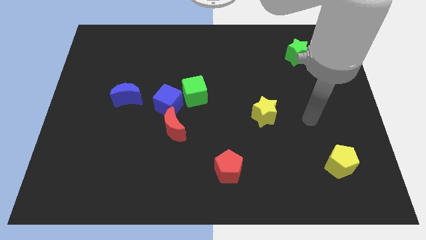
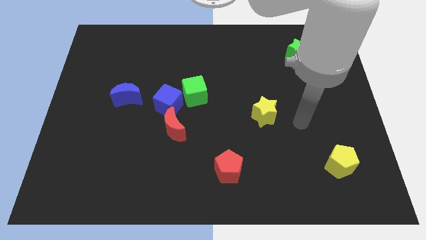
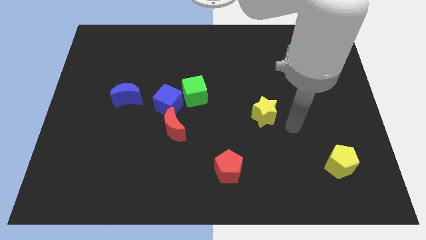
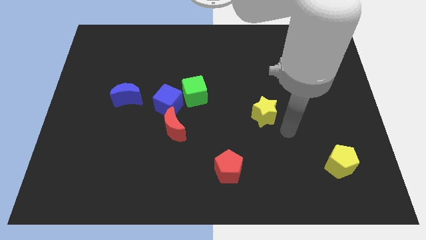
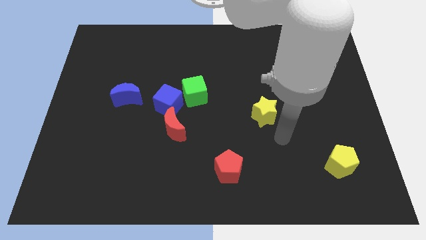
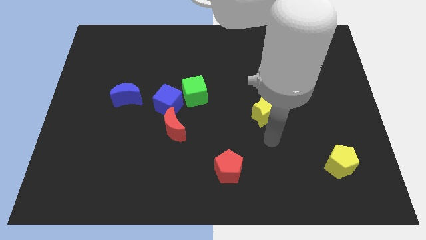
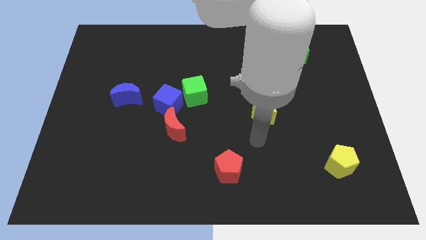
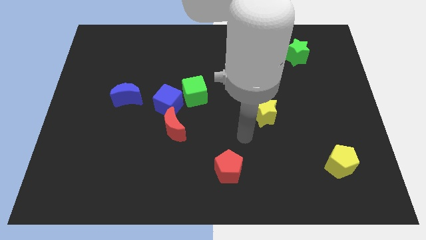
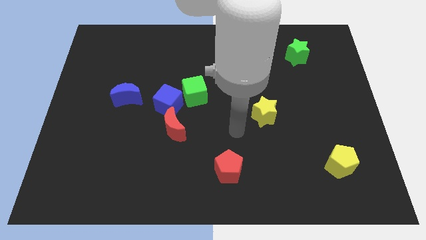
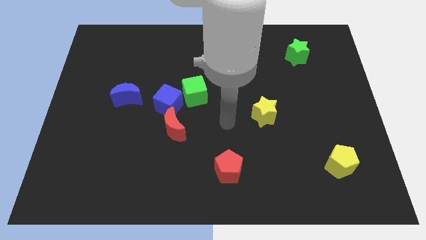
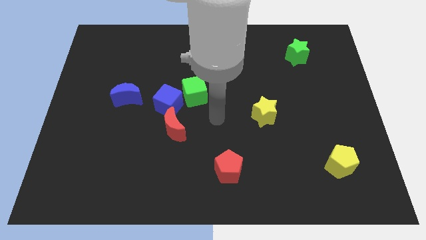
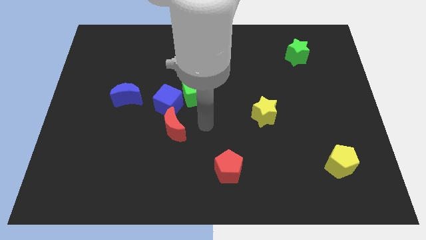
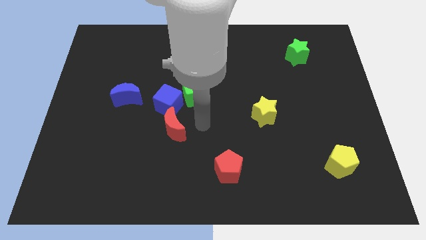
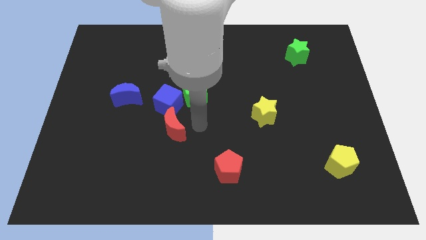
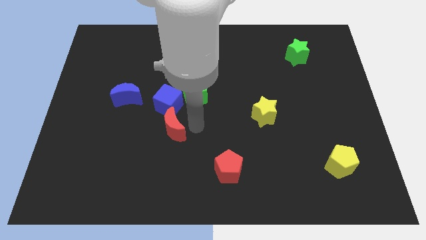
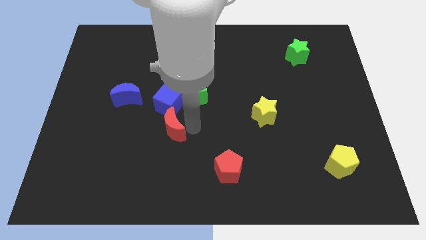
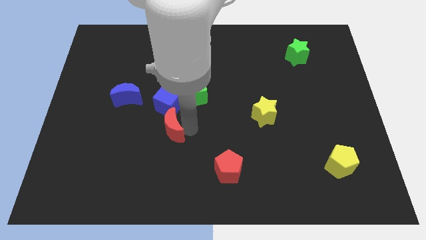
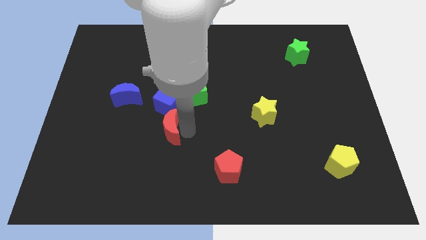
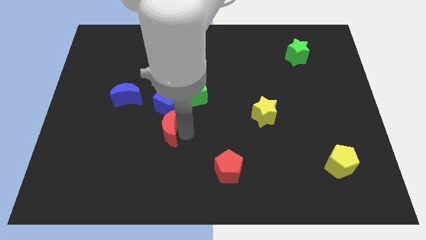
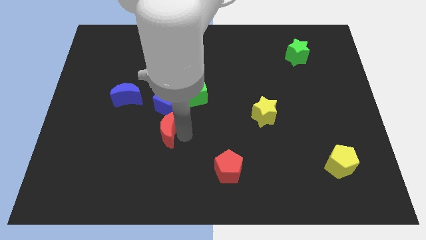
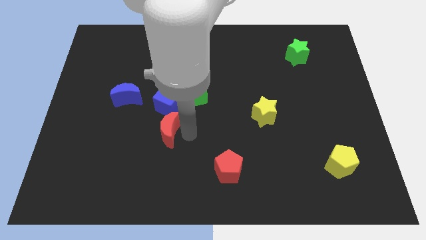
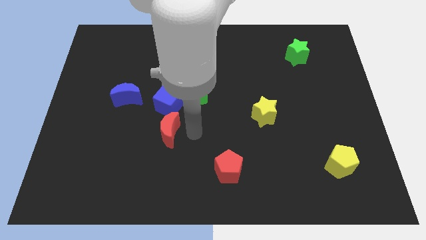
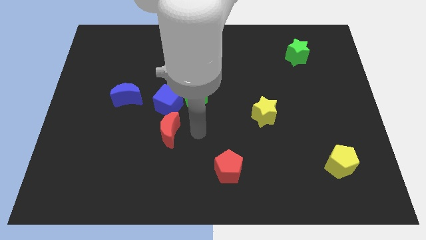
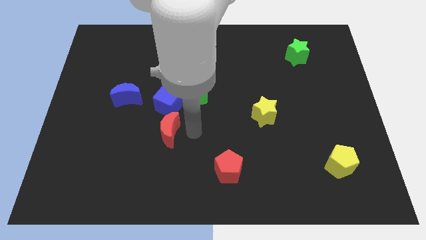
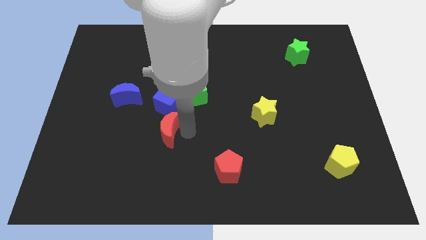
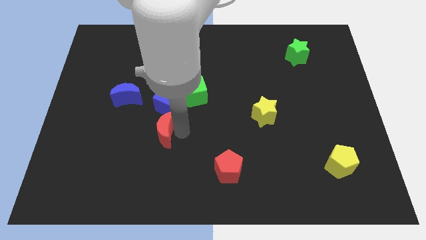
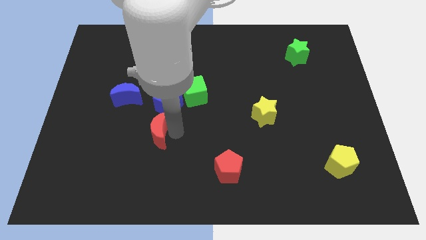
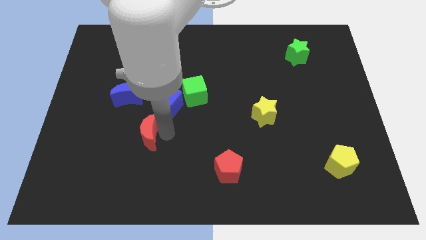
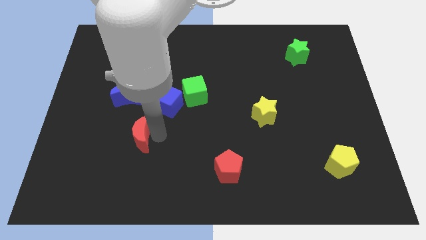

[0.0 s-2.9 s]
slide the red moon a bit to the left

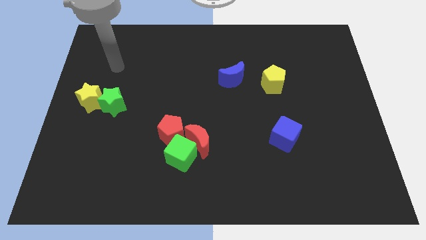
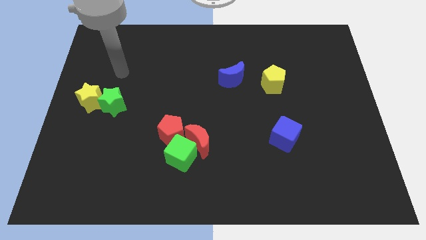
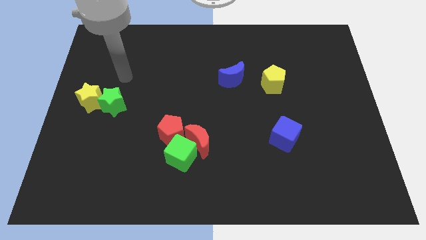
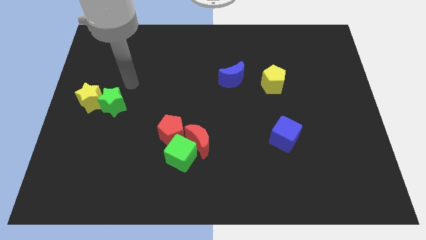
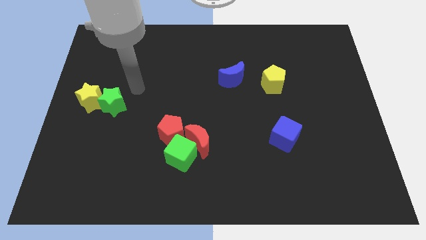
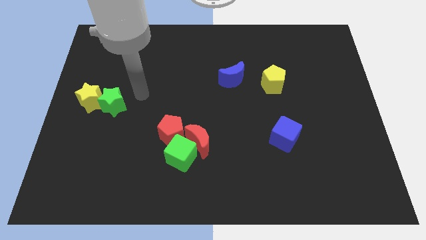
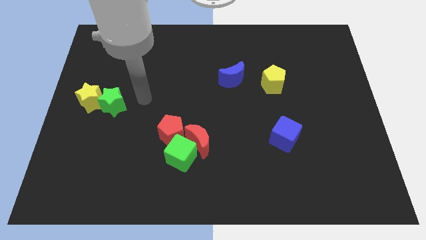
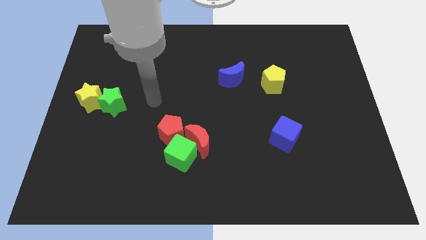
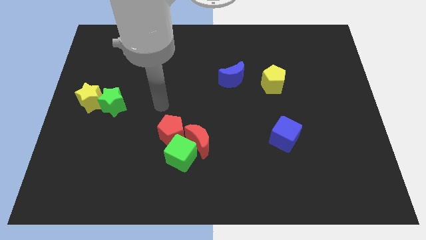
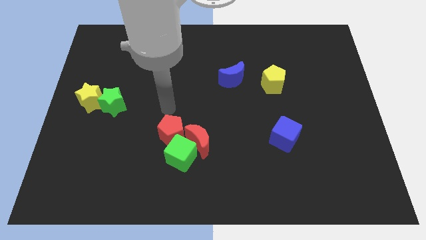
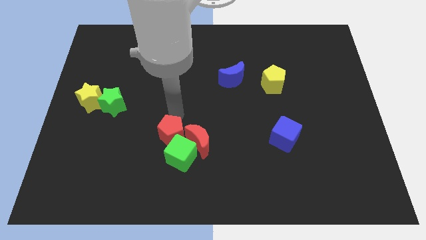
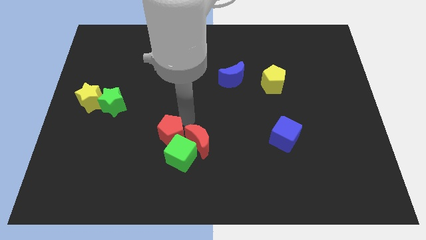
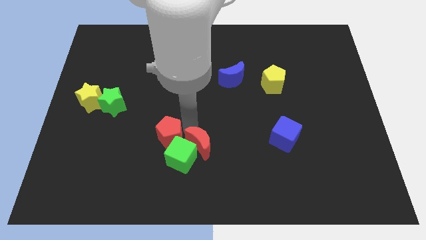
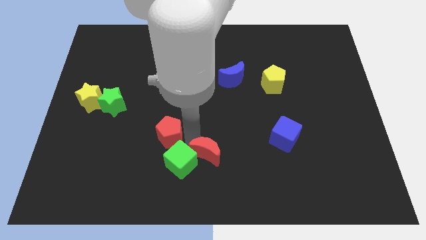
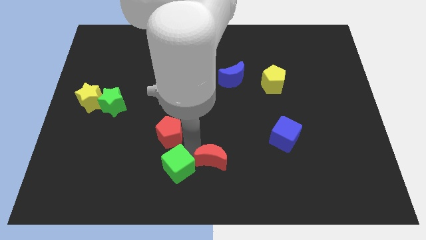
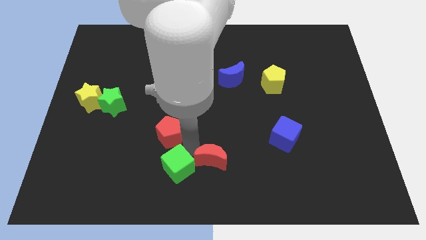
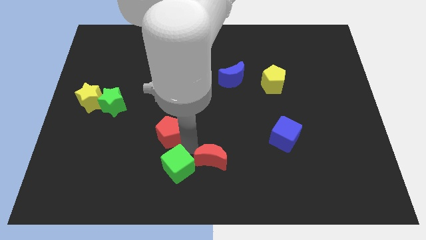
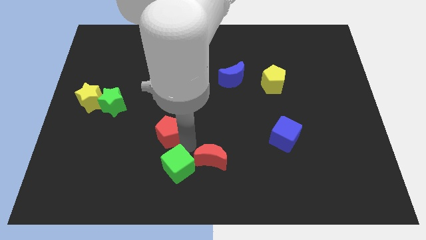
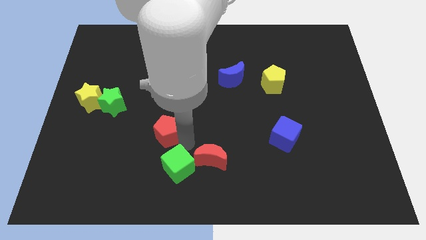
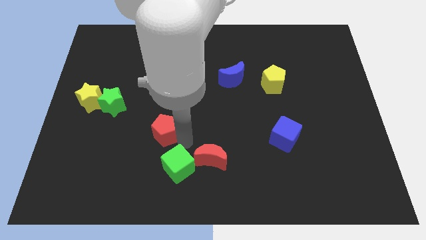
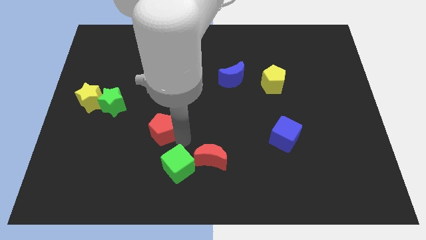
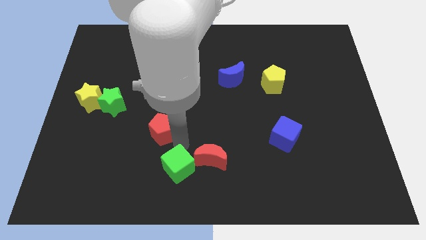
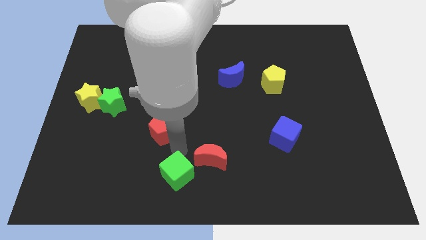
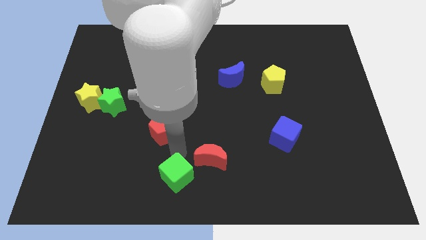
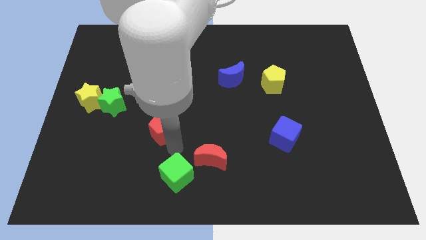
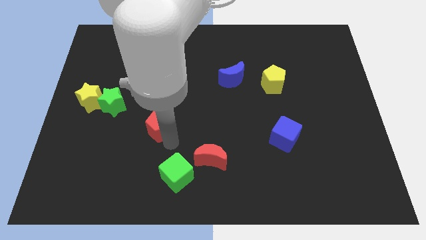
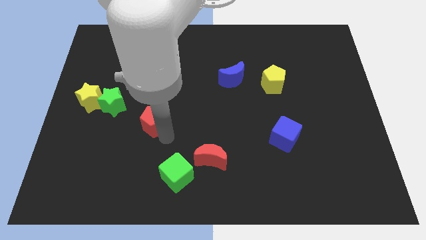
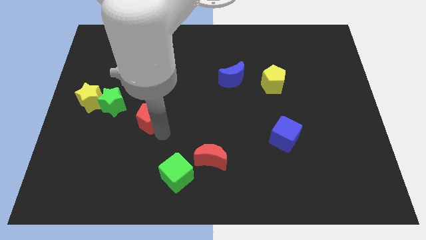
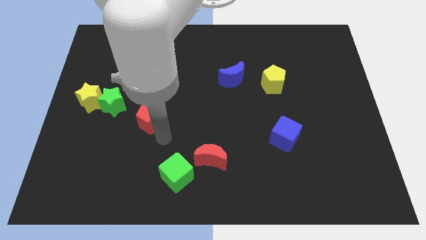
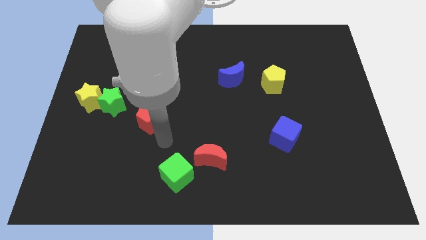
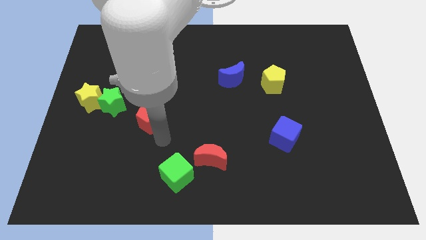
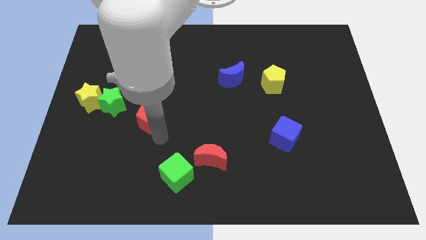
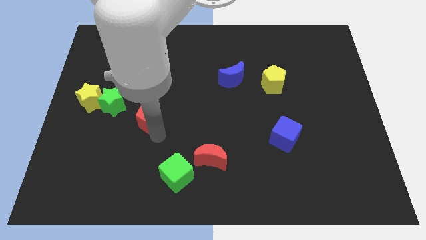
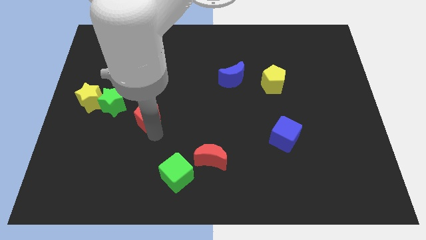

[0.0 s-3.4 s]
move the red pentagon upwards and then to the left a bit

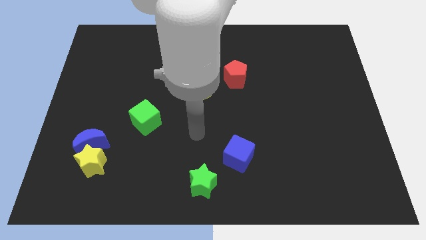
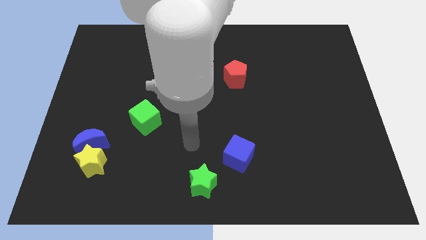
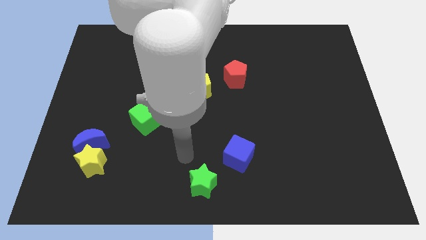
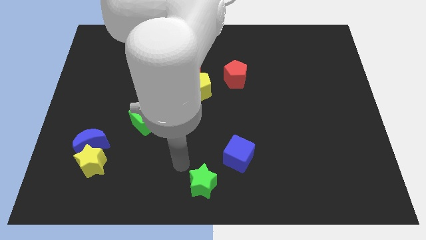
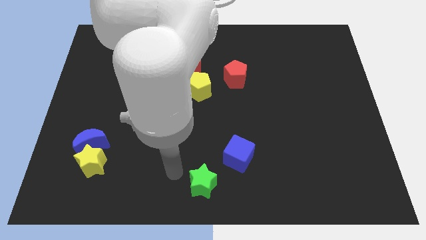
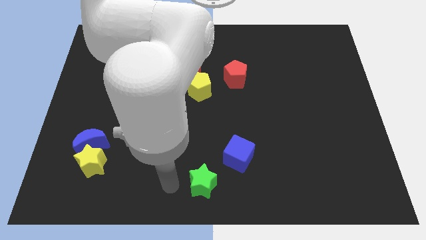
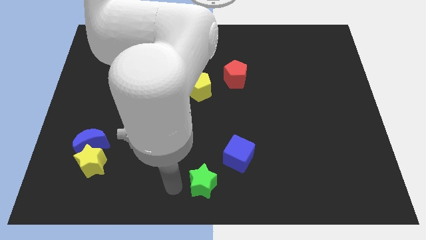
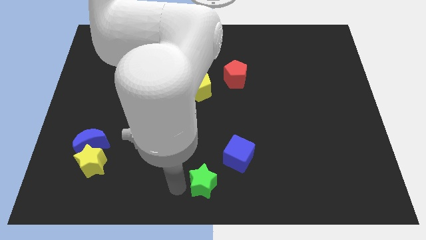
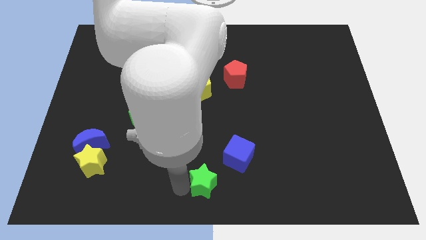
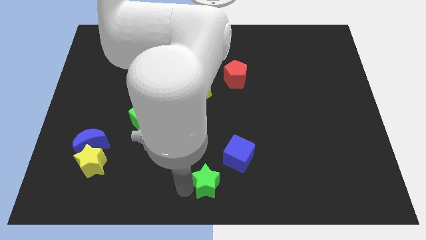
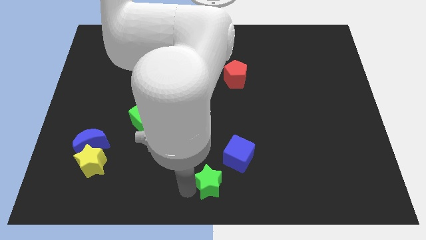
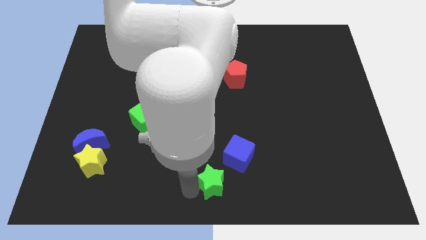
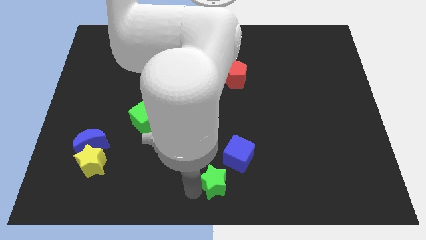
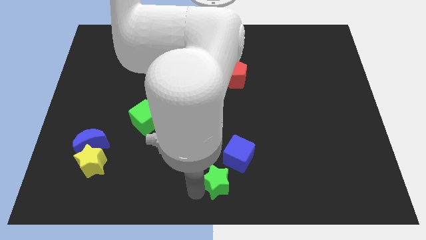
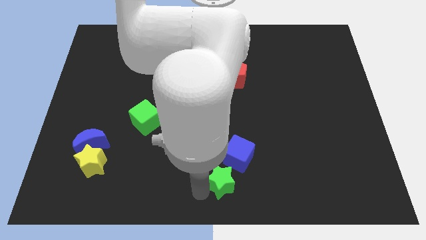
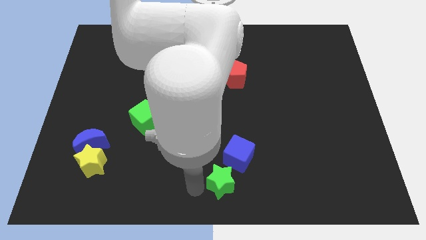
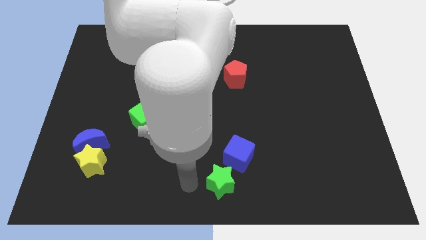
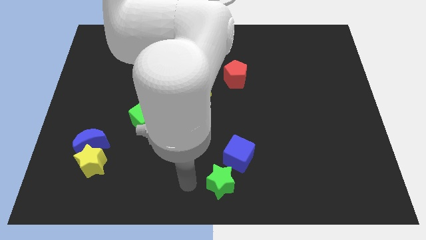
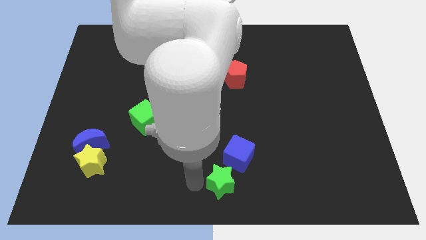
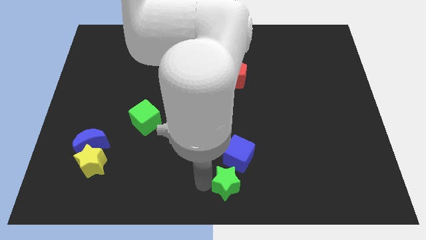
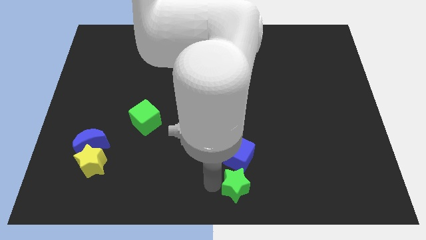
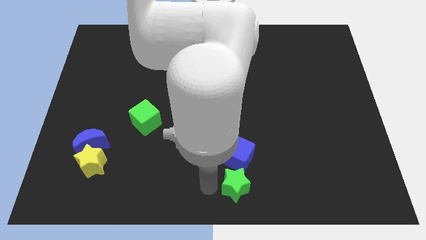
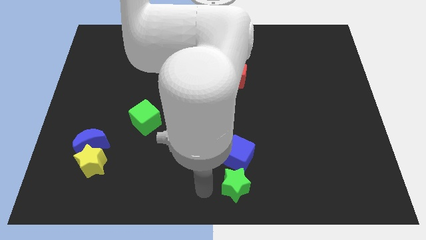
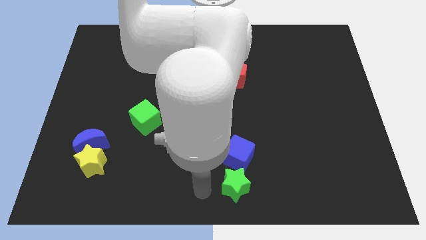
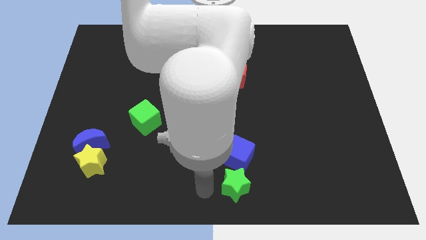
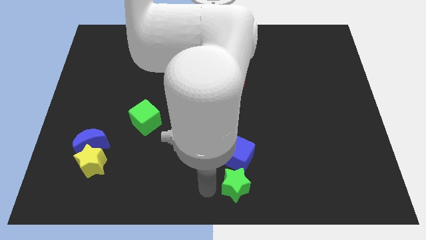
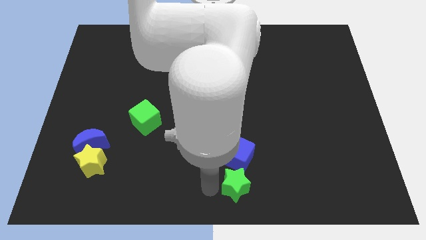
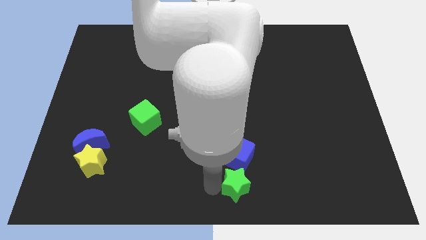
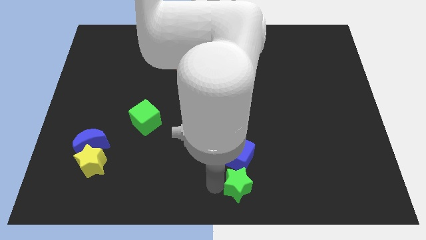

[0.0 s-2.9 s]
move the green star to the right a little bit
